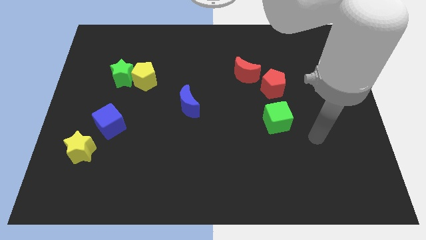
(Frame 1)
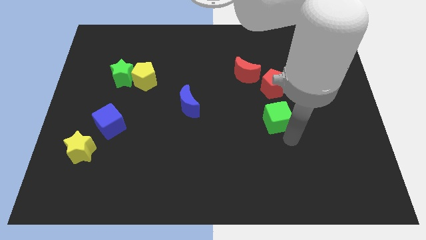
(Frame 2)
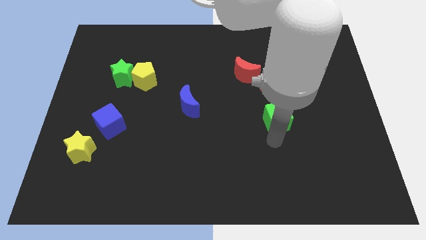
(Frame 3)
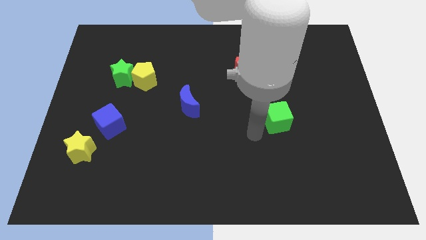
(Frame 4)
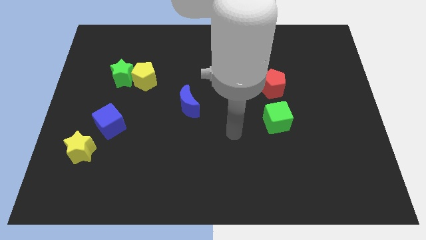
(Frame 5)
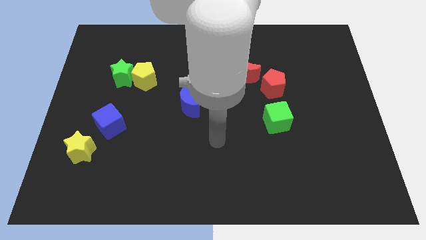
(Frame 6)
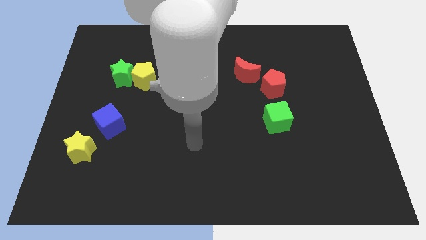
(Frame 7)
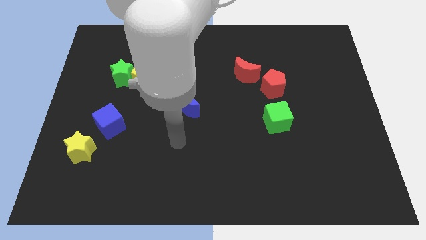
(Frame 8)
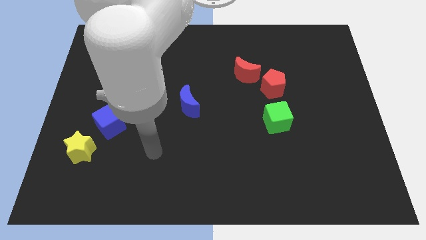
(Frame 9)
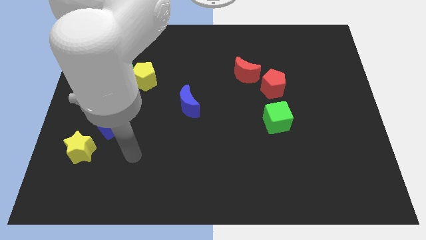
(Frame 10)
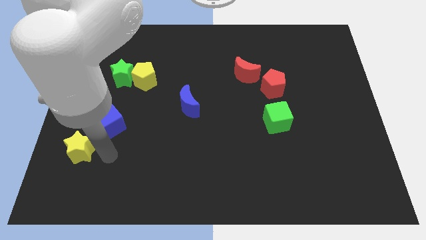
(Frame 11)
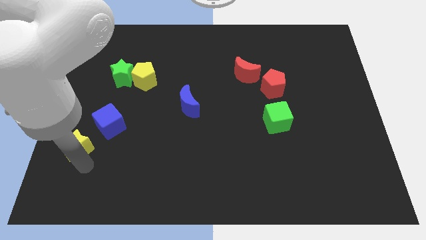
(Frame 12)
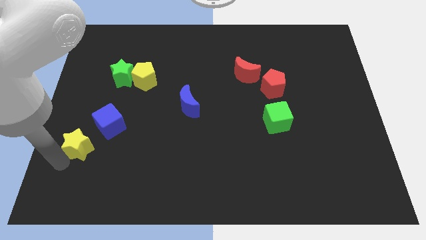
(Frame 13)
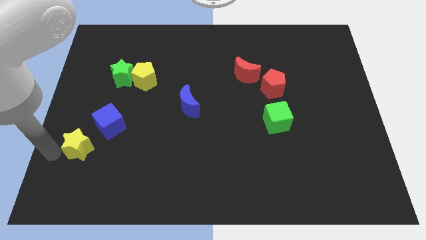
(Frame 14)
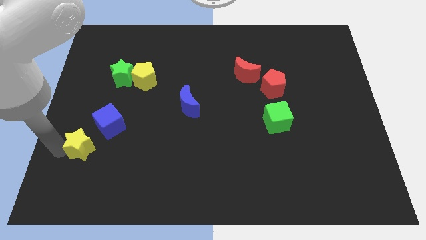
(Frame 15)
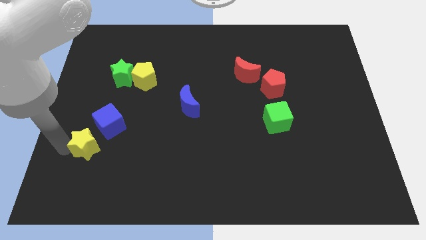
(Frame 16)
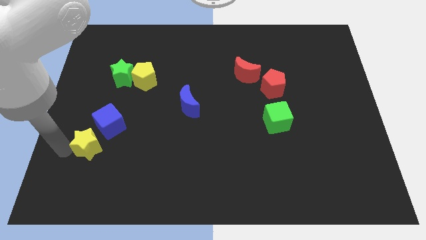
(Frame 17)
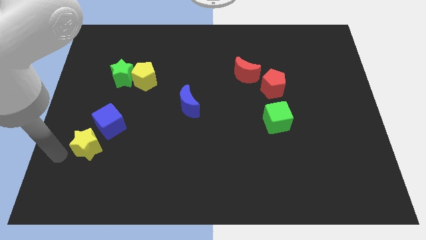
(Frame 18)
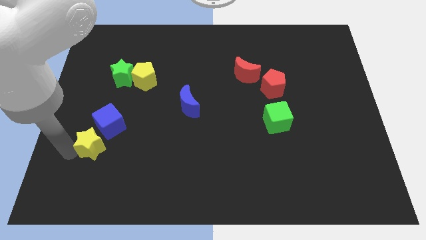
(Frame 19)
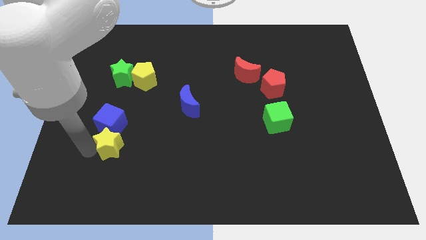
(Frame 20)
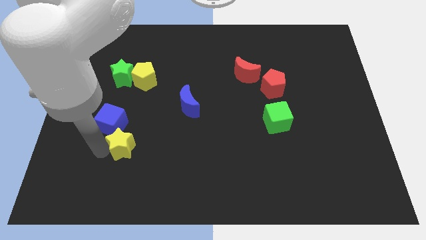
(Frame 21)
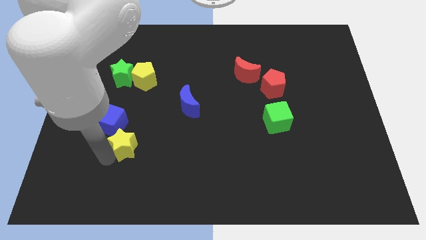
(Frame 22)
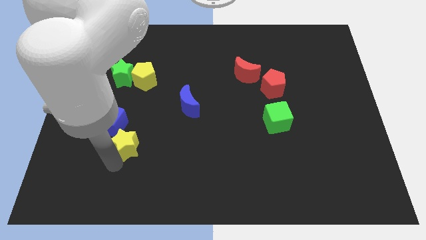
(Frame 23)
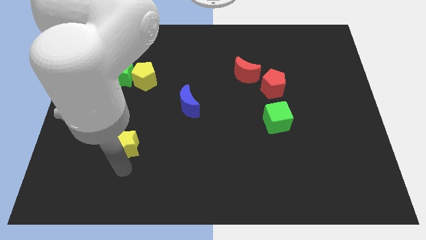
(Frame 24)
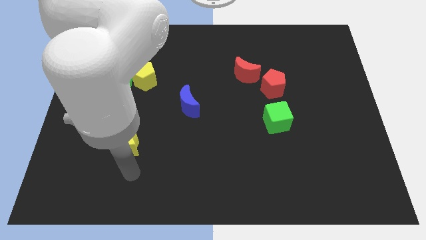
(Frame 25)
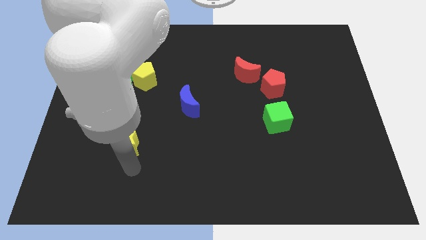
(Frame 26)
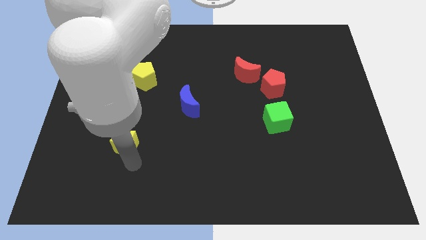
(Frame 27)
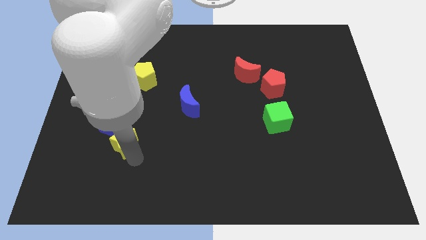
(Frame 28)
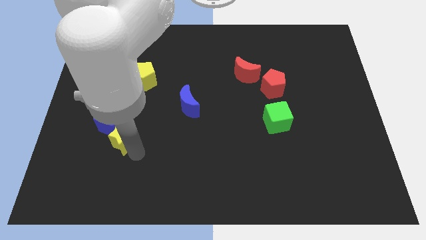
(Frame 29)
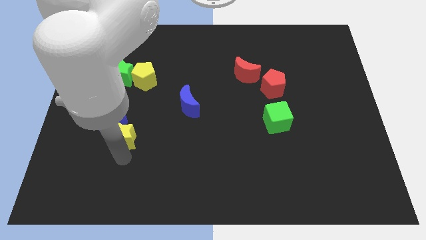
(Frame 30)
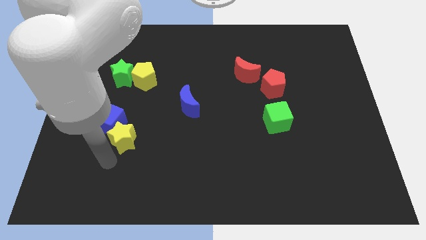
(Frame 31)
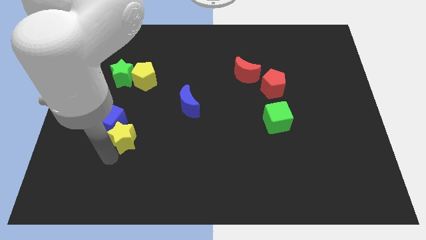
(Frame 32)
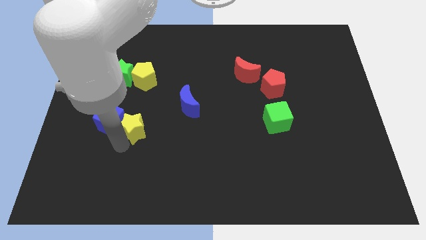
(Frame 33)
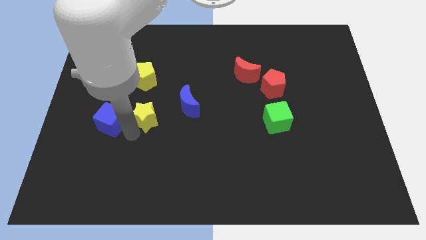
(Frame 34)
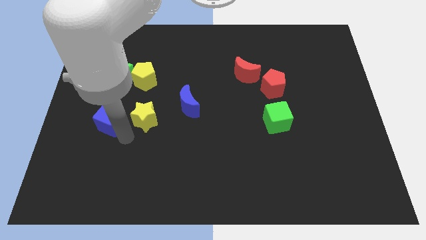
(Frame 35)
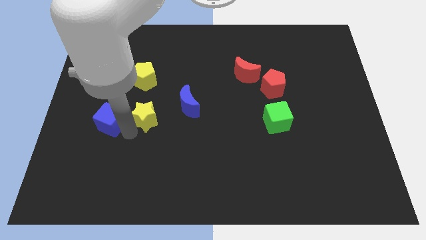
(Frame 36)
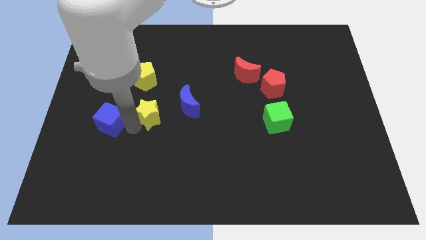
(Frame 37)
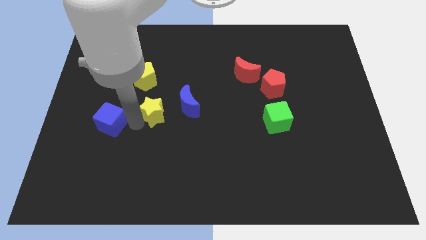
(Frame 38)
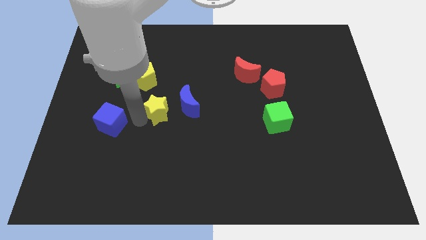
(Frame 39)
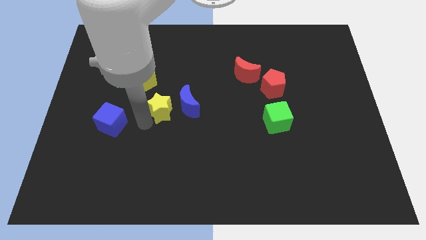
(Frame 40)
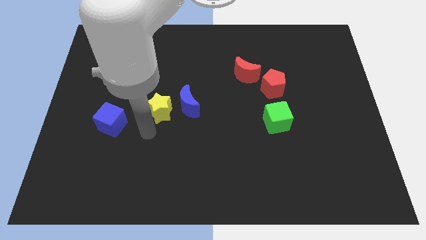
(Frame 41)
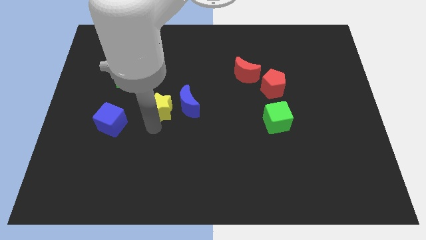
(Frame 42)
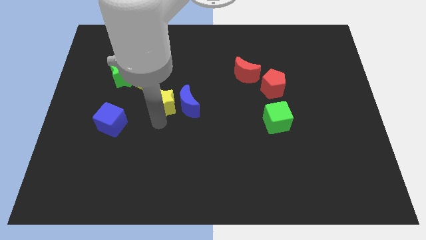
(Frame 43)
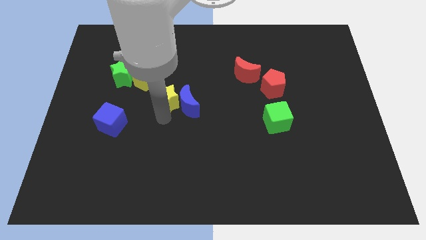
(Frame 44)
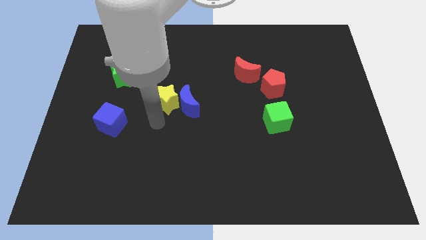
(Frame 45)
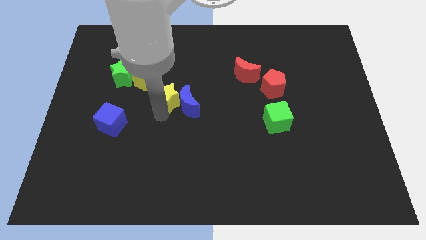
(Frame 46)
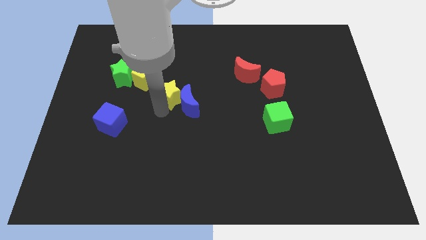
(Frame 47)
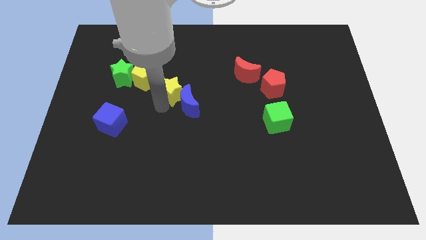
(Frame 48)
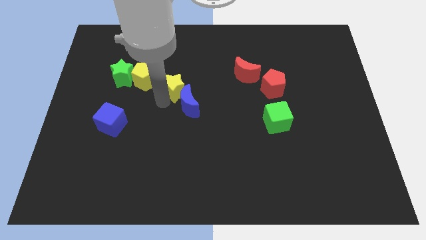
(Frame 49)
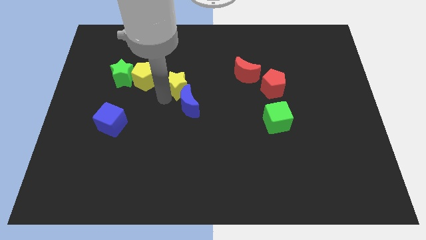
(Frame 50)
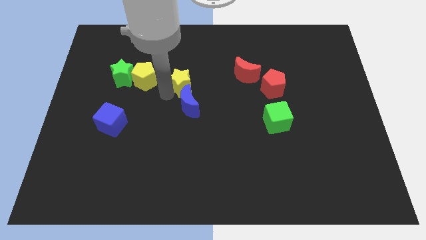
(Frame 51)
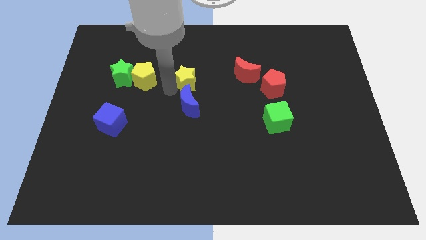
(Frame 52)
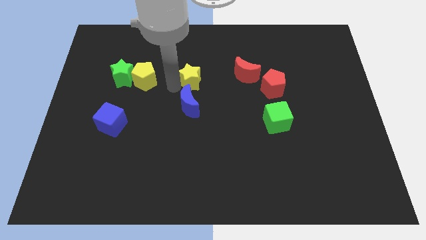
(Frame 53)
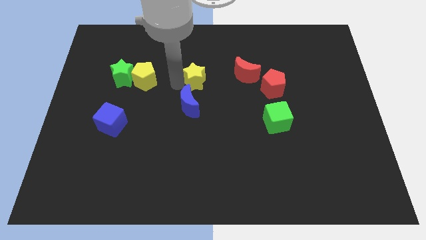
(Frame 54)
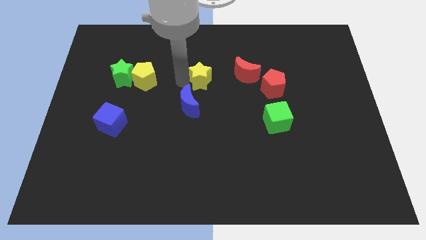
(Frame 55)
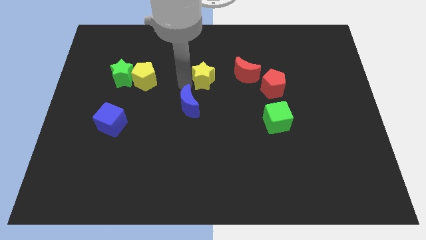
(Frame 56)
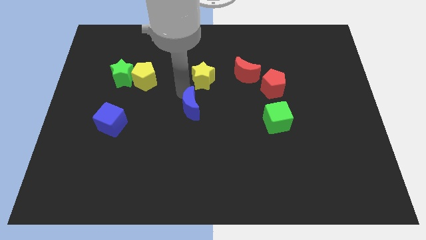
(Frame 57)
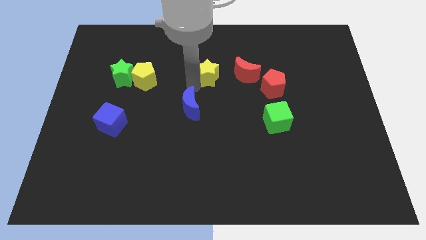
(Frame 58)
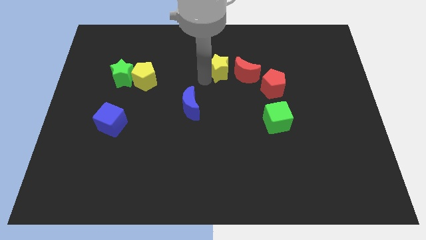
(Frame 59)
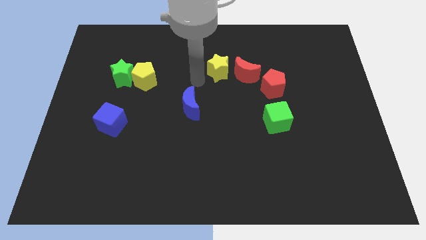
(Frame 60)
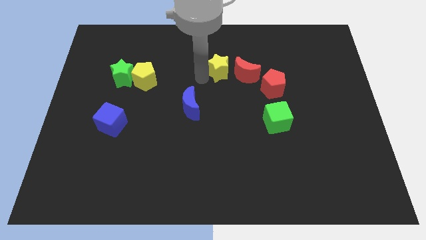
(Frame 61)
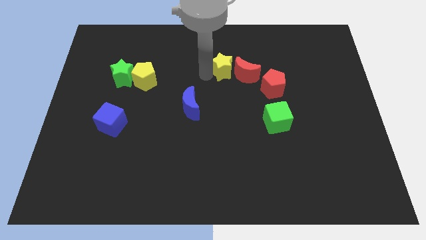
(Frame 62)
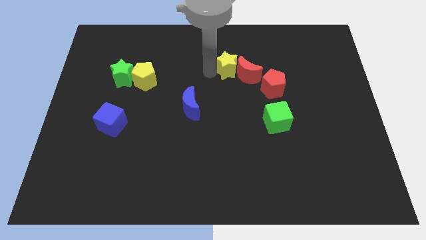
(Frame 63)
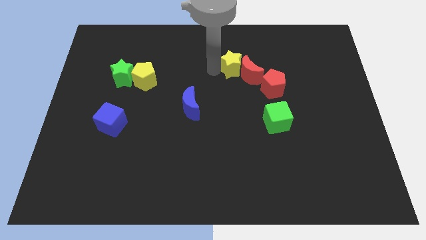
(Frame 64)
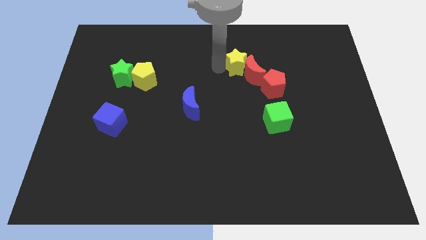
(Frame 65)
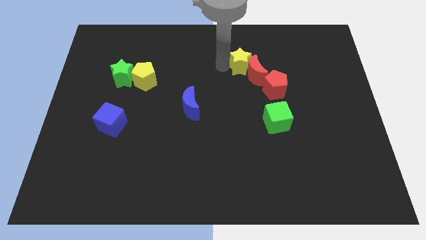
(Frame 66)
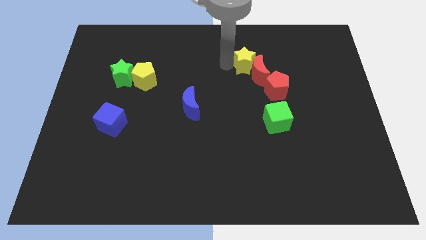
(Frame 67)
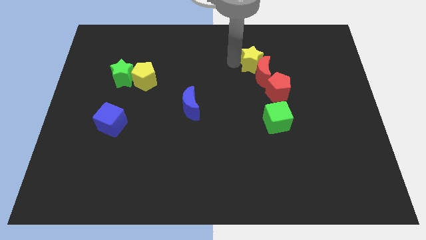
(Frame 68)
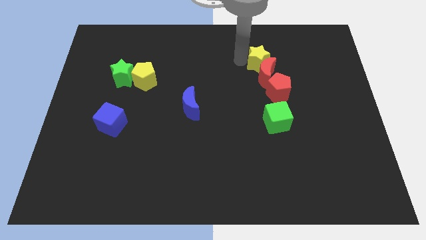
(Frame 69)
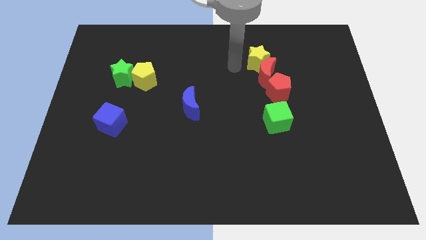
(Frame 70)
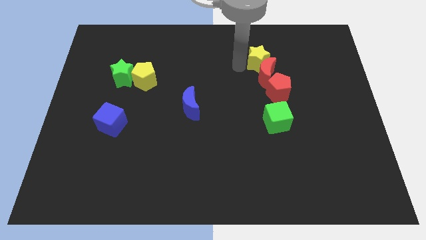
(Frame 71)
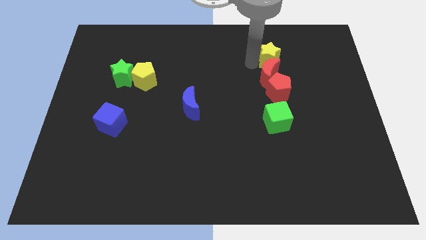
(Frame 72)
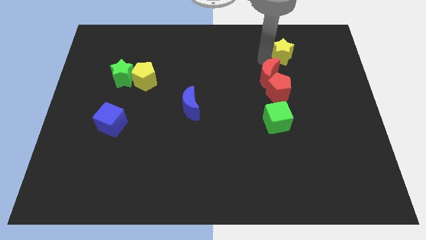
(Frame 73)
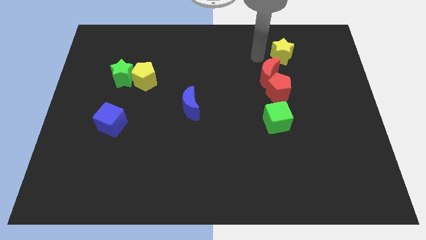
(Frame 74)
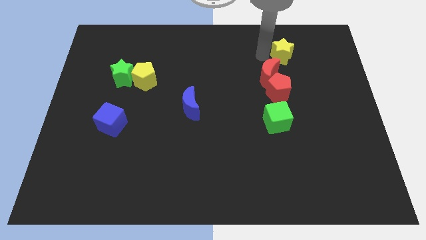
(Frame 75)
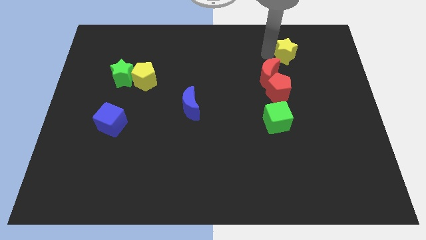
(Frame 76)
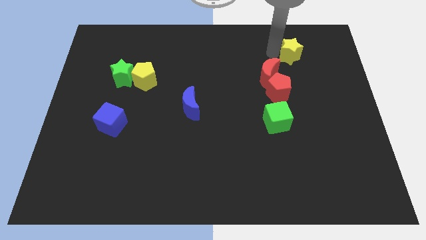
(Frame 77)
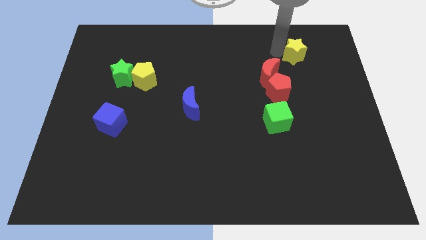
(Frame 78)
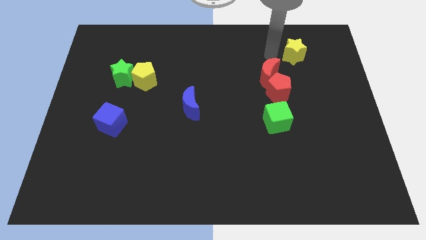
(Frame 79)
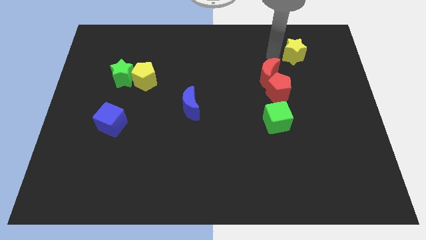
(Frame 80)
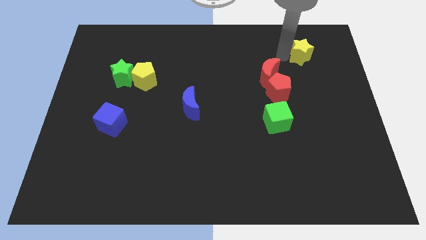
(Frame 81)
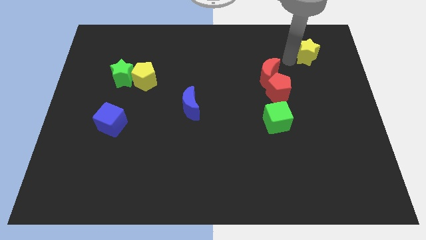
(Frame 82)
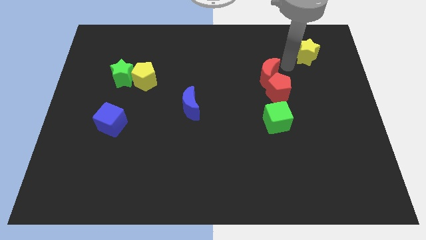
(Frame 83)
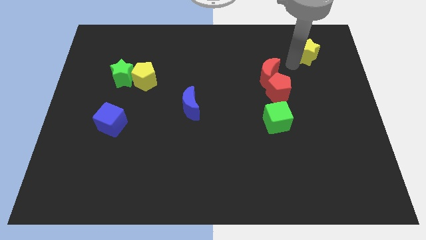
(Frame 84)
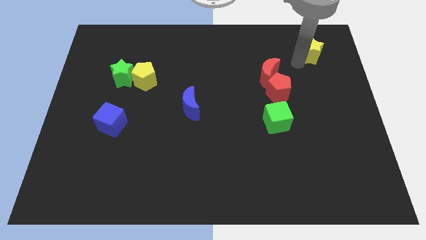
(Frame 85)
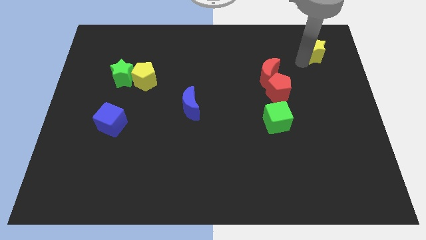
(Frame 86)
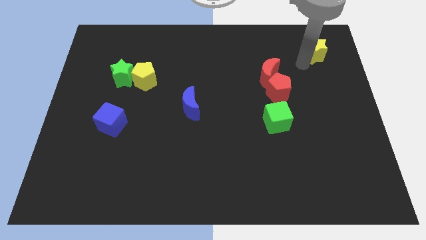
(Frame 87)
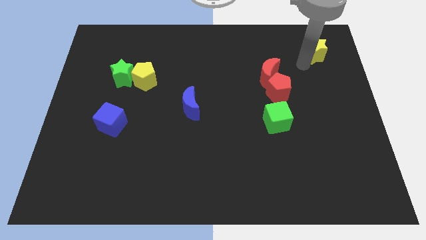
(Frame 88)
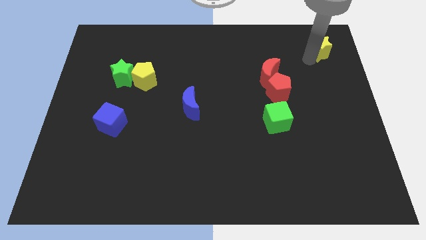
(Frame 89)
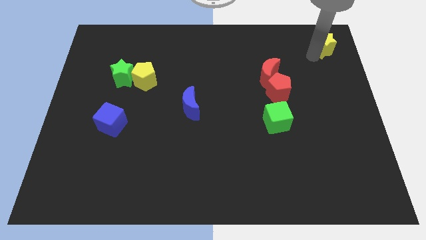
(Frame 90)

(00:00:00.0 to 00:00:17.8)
move the yellow star to the top right corner
